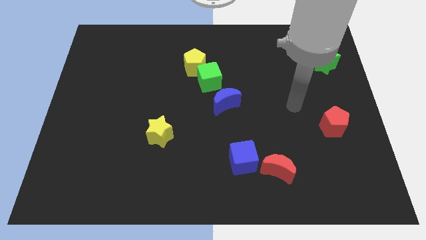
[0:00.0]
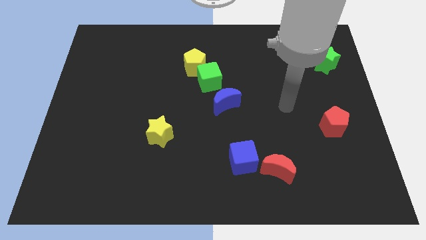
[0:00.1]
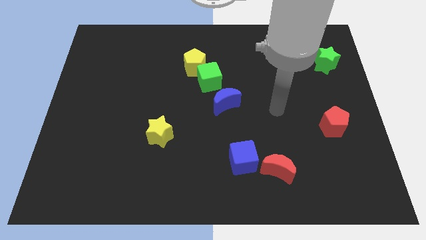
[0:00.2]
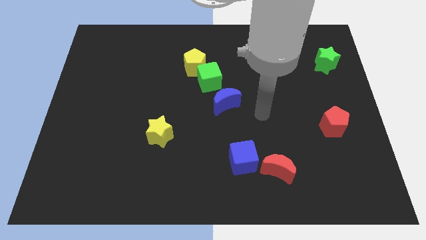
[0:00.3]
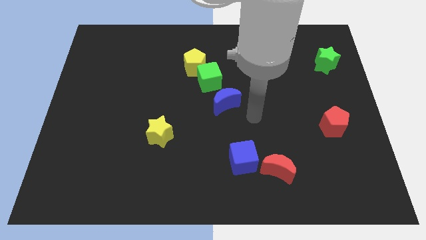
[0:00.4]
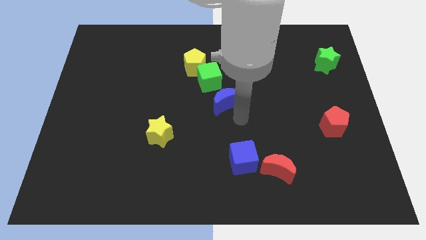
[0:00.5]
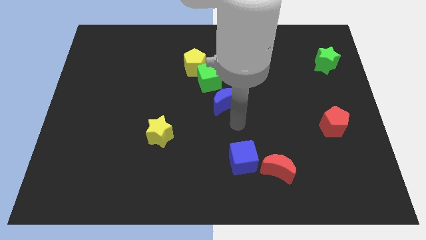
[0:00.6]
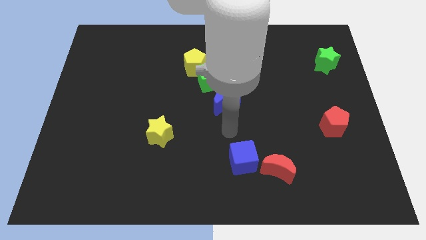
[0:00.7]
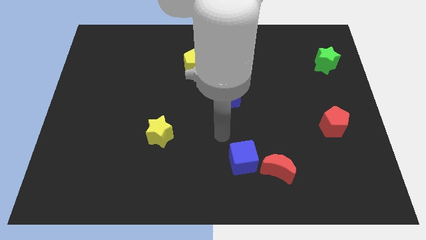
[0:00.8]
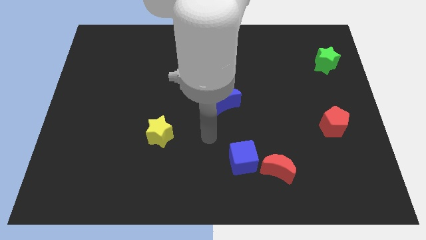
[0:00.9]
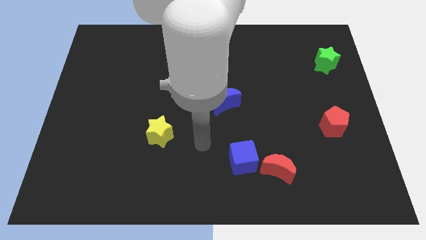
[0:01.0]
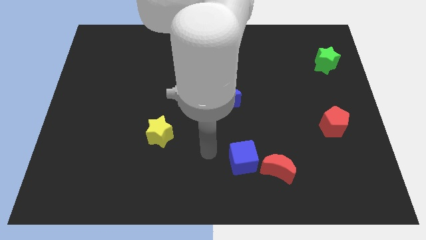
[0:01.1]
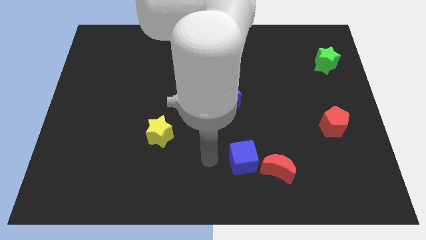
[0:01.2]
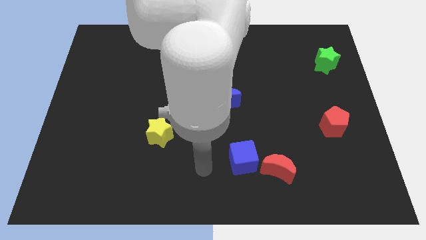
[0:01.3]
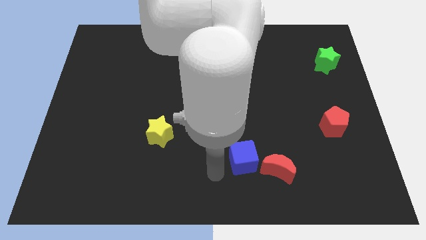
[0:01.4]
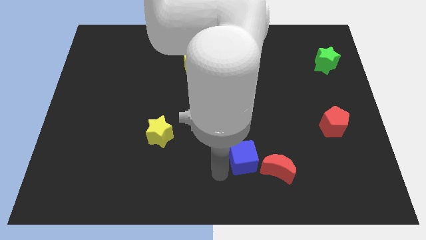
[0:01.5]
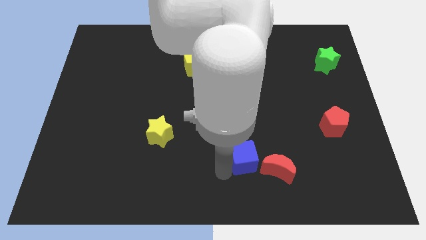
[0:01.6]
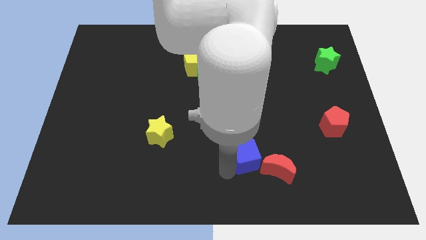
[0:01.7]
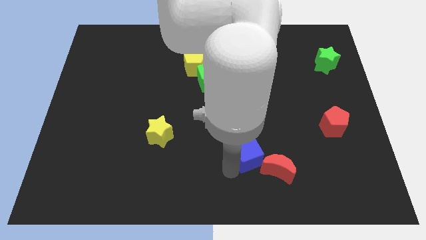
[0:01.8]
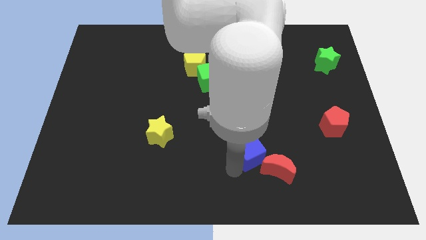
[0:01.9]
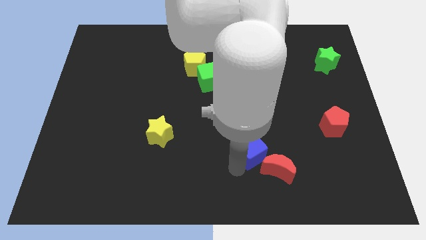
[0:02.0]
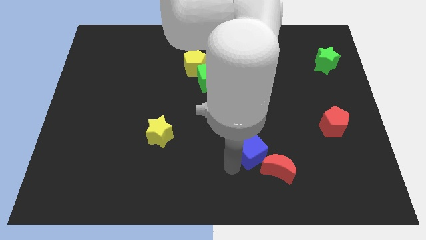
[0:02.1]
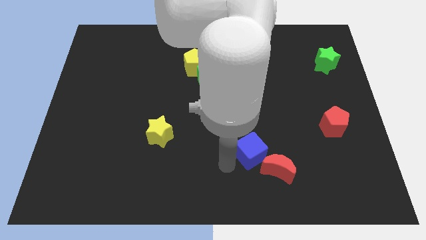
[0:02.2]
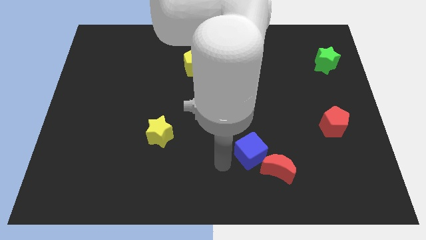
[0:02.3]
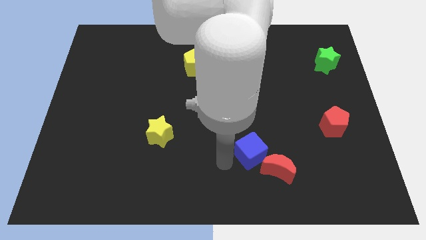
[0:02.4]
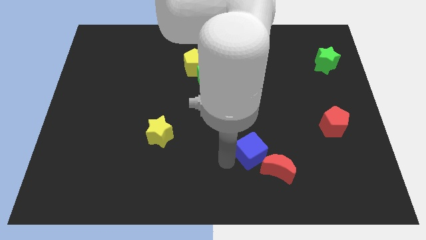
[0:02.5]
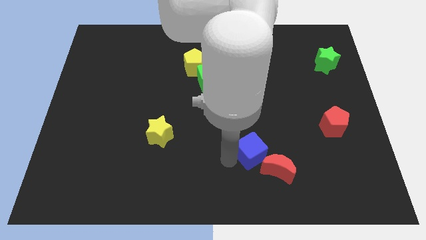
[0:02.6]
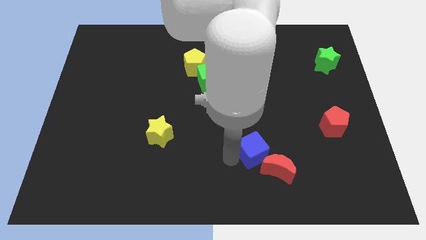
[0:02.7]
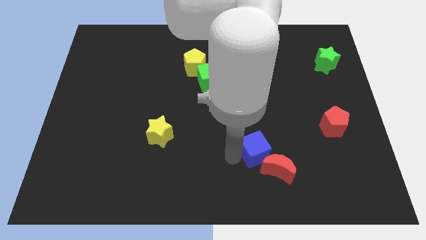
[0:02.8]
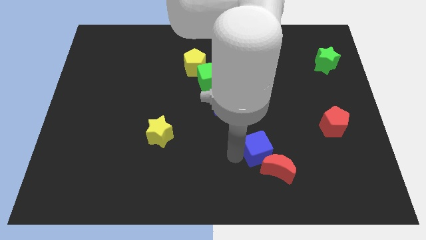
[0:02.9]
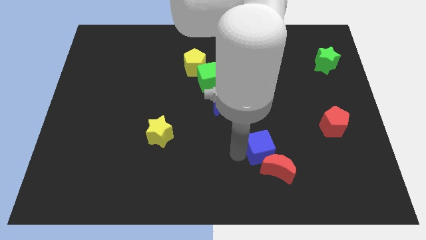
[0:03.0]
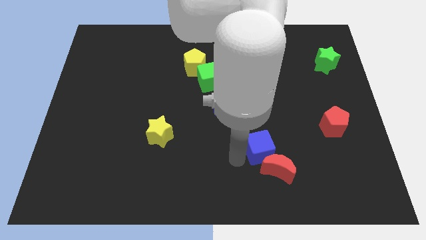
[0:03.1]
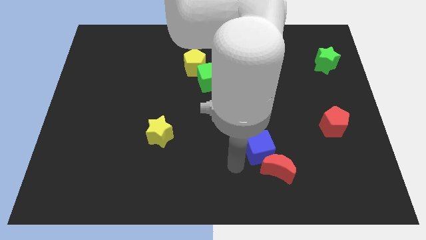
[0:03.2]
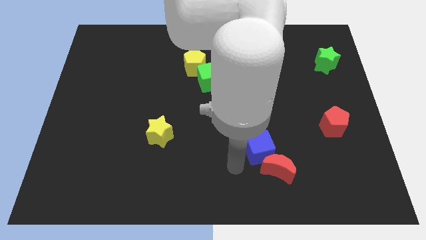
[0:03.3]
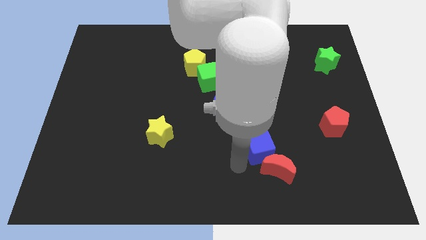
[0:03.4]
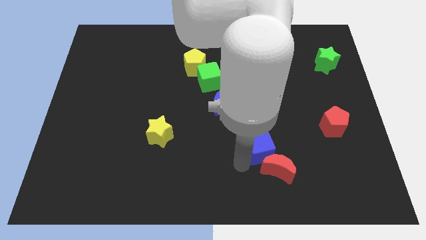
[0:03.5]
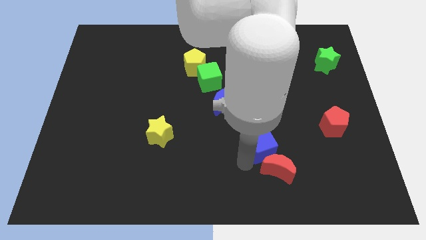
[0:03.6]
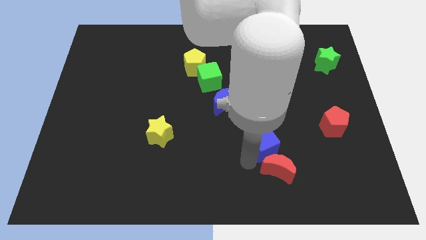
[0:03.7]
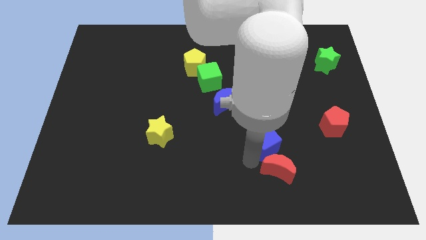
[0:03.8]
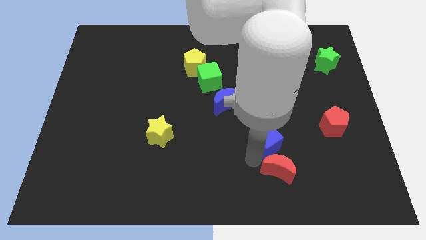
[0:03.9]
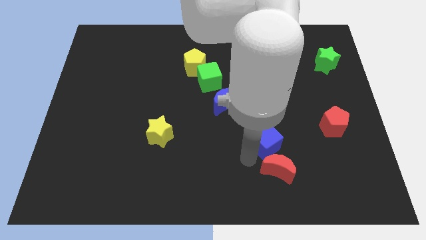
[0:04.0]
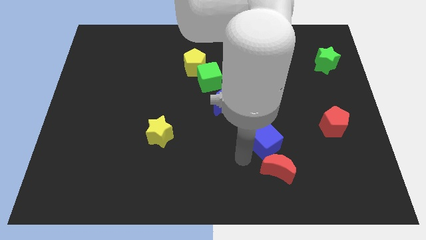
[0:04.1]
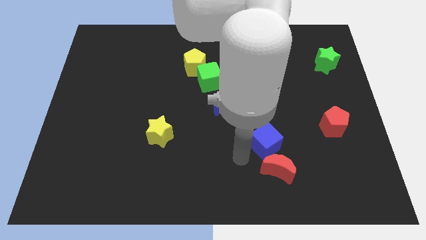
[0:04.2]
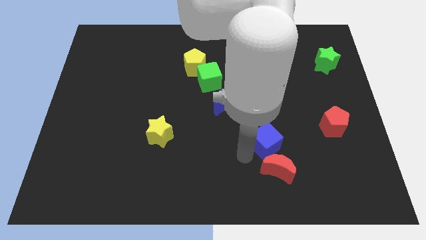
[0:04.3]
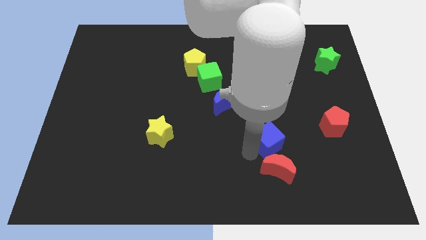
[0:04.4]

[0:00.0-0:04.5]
move the blue cube a little bit up and right diagonally

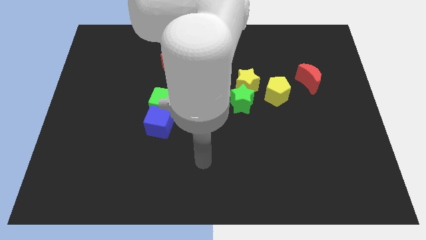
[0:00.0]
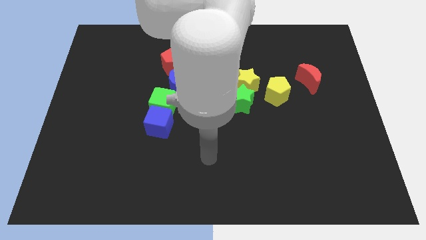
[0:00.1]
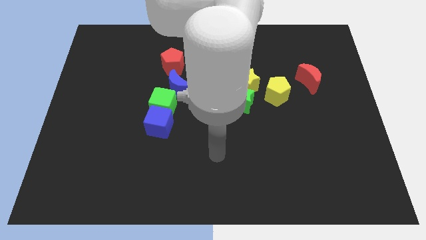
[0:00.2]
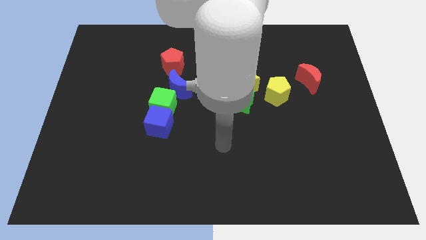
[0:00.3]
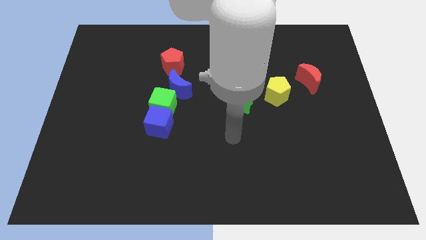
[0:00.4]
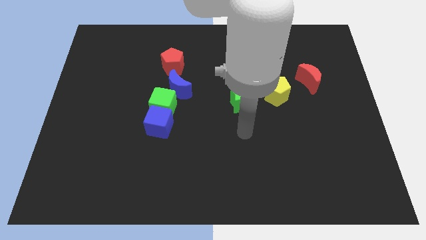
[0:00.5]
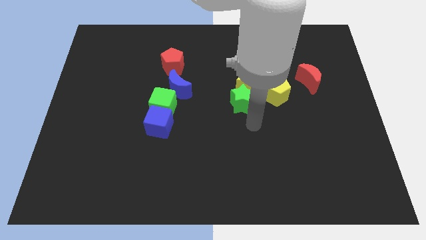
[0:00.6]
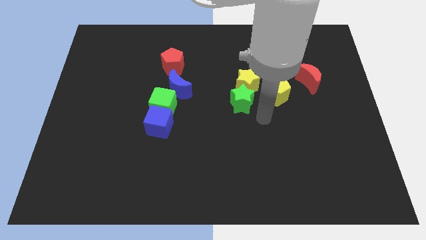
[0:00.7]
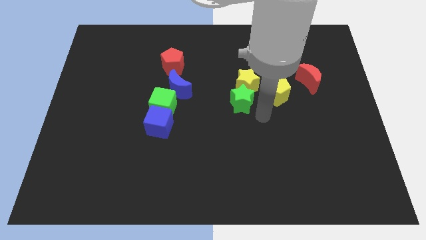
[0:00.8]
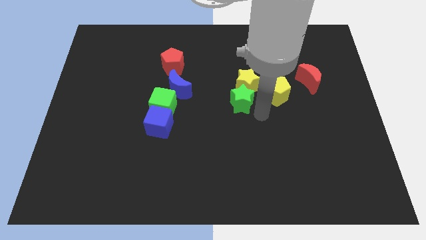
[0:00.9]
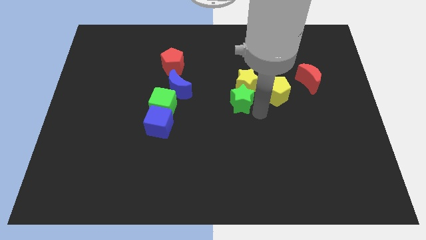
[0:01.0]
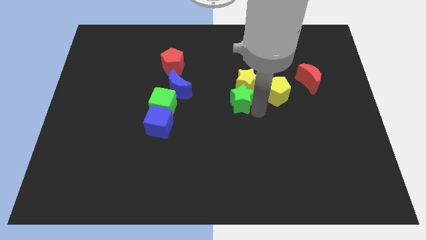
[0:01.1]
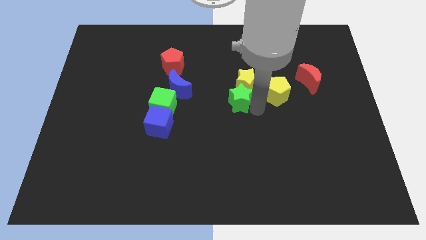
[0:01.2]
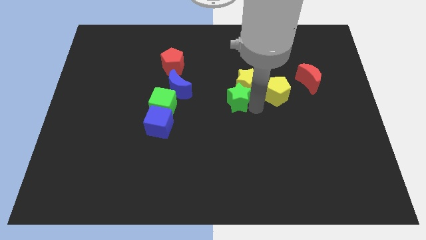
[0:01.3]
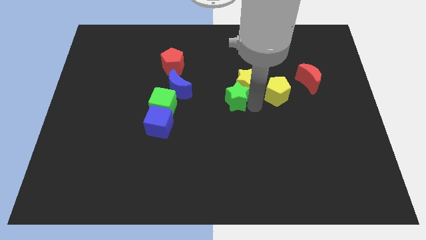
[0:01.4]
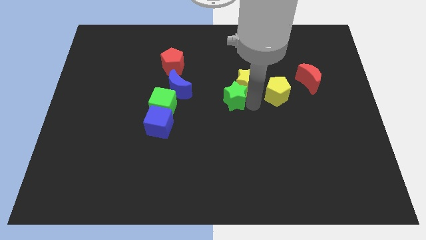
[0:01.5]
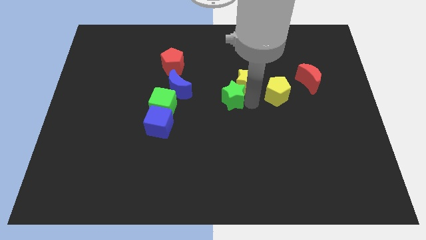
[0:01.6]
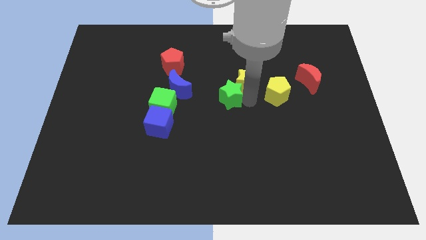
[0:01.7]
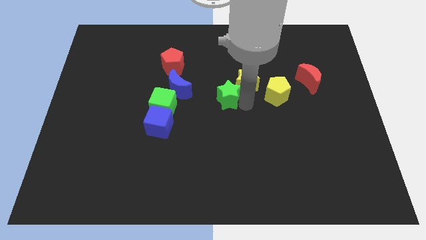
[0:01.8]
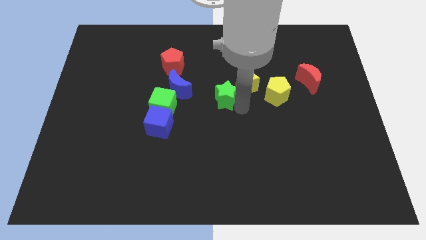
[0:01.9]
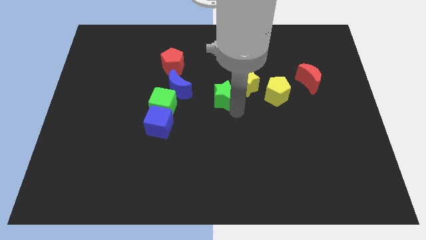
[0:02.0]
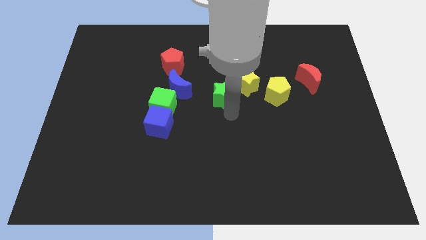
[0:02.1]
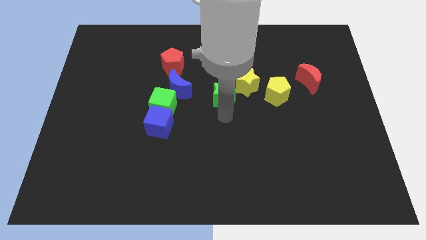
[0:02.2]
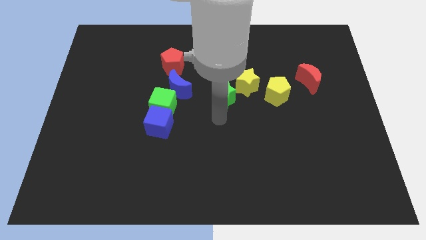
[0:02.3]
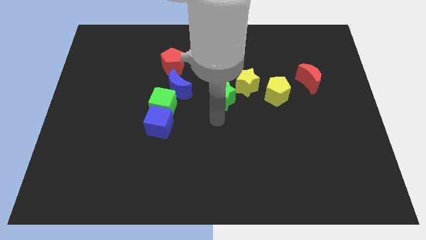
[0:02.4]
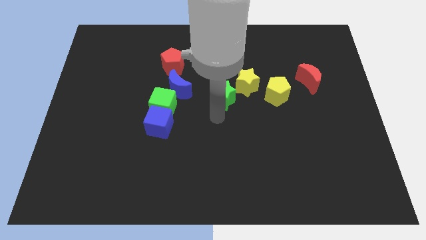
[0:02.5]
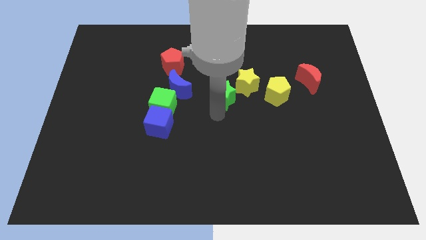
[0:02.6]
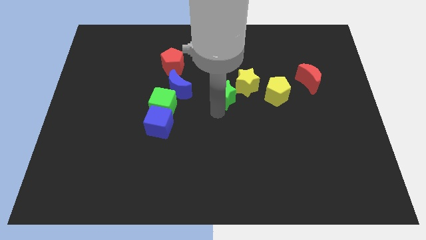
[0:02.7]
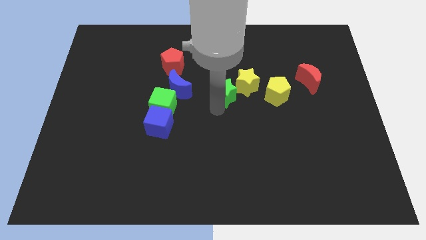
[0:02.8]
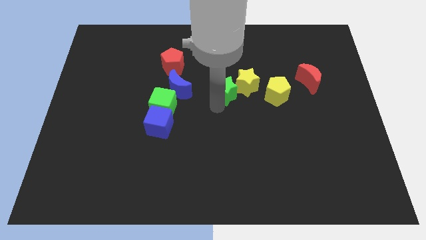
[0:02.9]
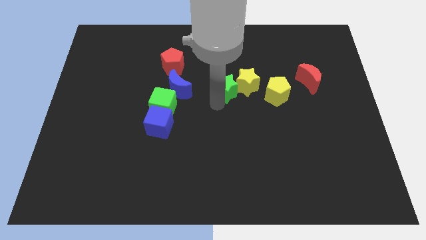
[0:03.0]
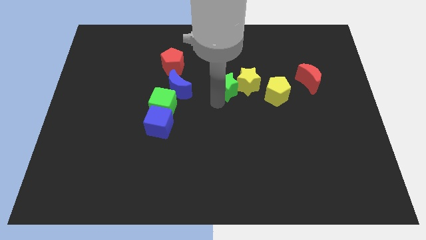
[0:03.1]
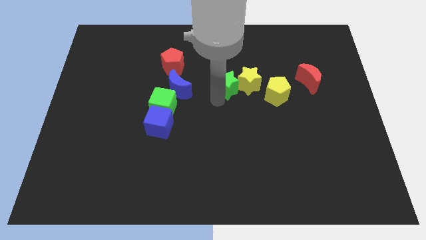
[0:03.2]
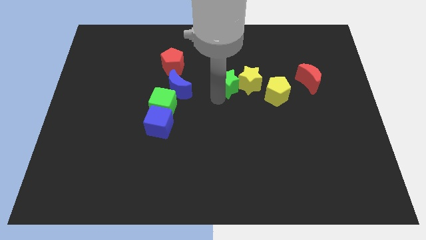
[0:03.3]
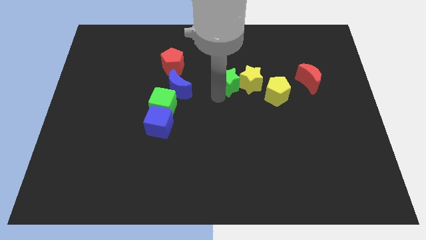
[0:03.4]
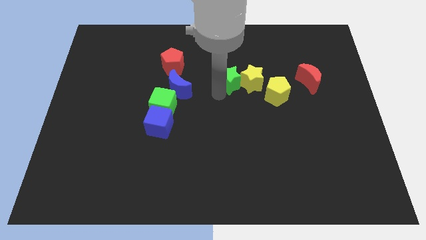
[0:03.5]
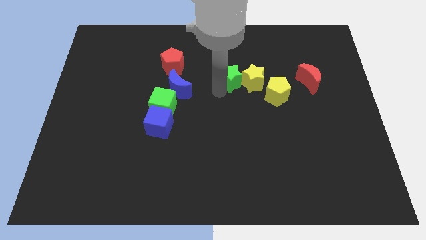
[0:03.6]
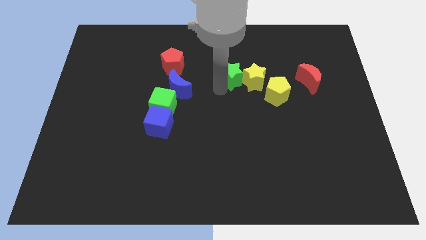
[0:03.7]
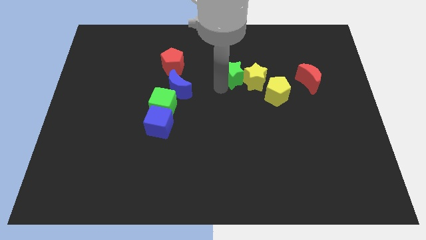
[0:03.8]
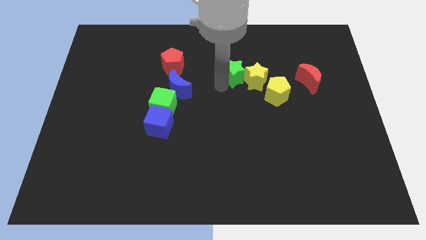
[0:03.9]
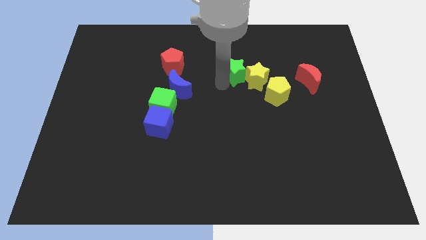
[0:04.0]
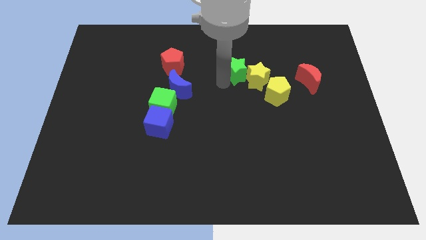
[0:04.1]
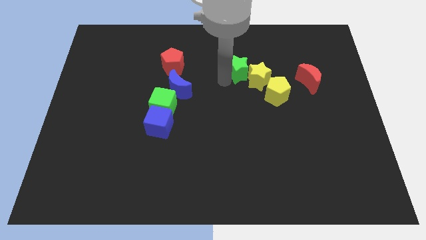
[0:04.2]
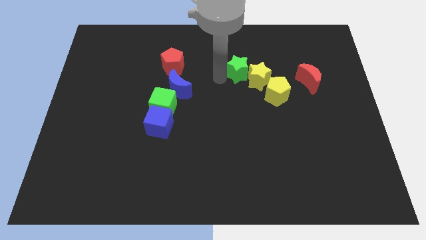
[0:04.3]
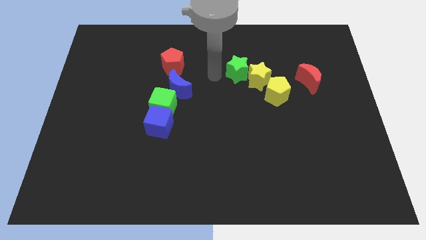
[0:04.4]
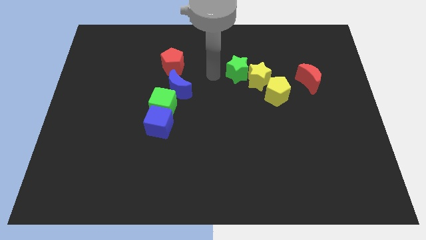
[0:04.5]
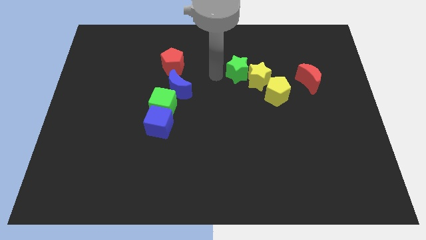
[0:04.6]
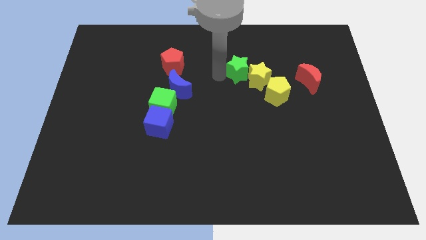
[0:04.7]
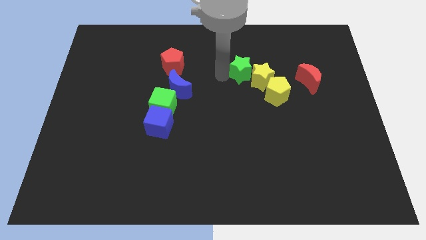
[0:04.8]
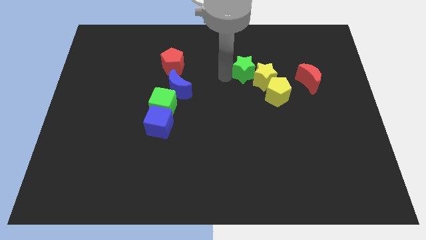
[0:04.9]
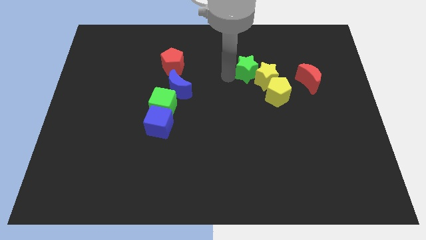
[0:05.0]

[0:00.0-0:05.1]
slide the green star up and to the right a bit
